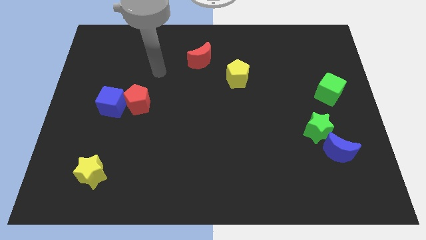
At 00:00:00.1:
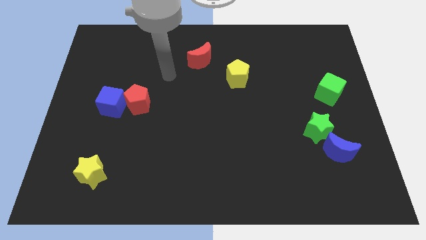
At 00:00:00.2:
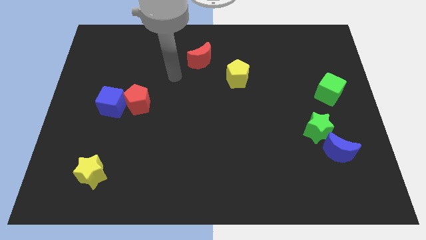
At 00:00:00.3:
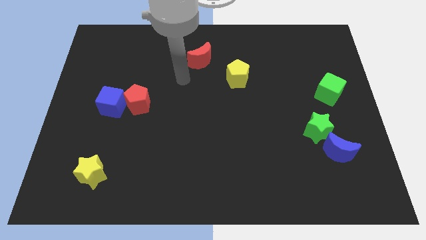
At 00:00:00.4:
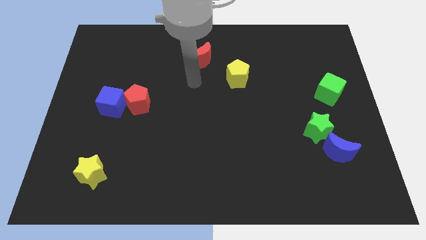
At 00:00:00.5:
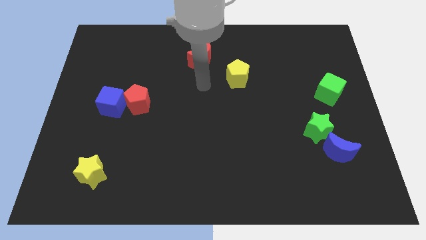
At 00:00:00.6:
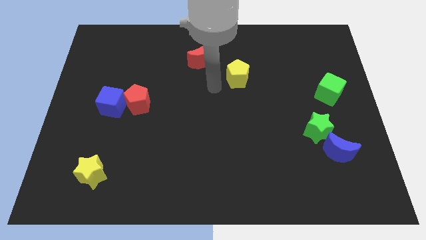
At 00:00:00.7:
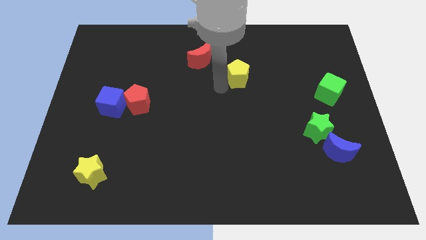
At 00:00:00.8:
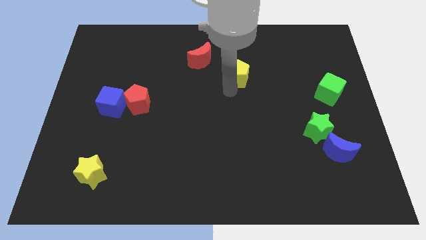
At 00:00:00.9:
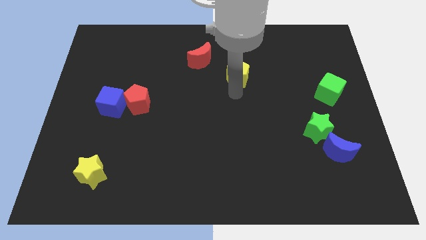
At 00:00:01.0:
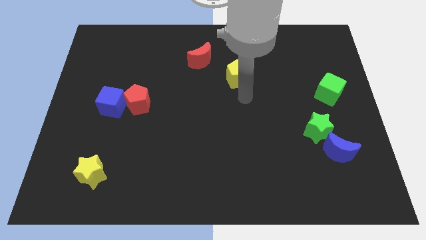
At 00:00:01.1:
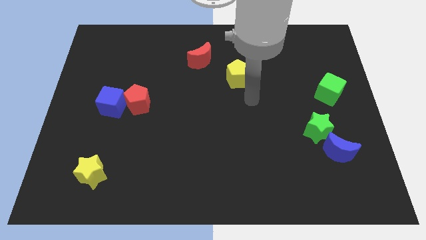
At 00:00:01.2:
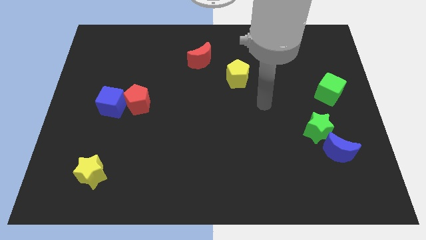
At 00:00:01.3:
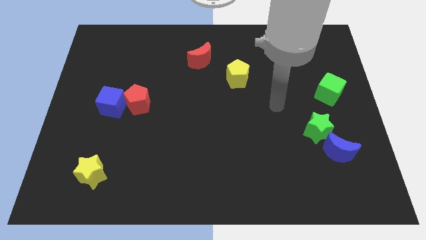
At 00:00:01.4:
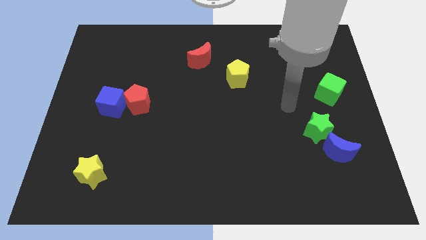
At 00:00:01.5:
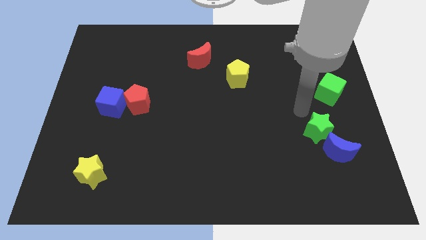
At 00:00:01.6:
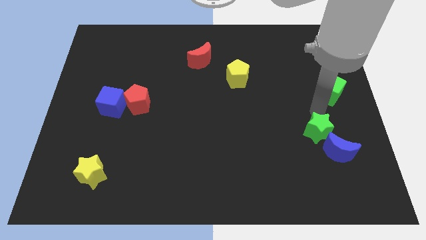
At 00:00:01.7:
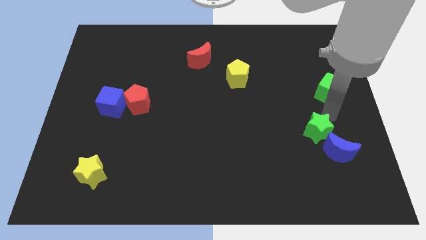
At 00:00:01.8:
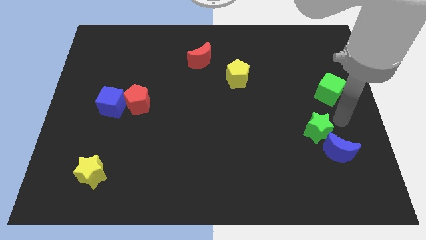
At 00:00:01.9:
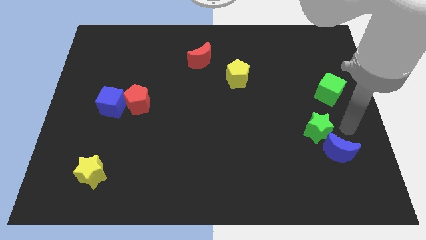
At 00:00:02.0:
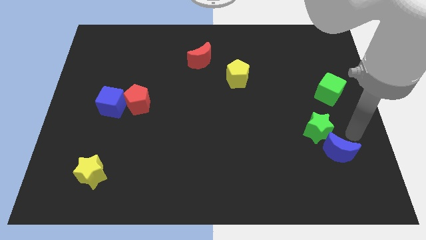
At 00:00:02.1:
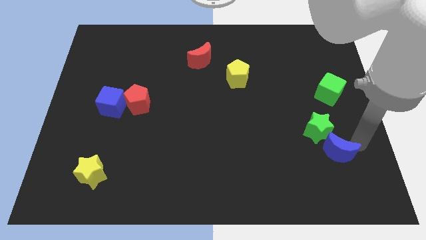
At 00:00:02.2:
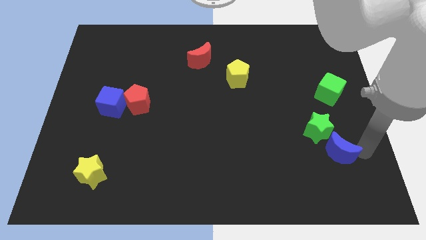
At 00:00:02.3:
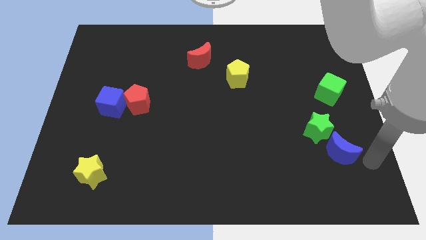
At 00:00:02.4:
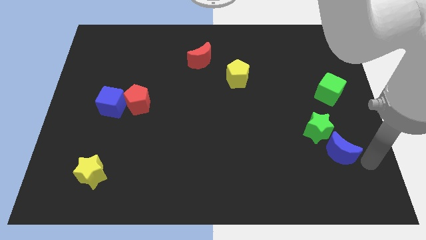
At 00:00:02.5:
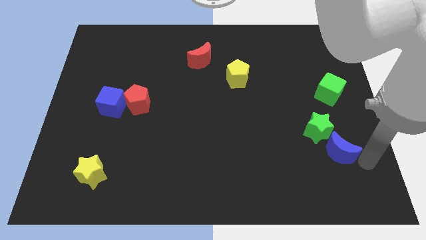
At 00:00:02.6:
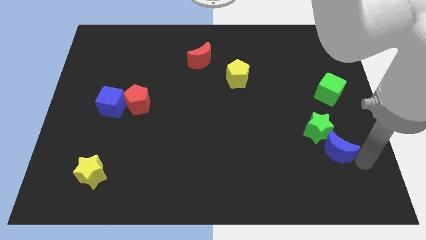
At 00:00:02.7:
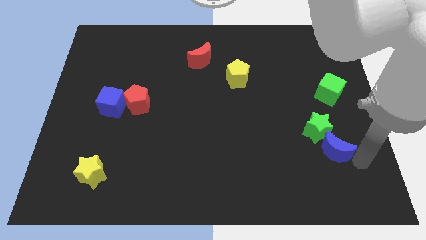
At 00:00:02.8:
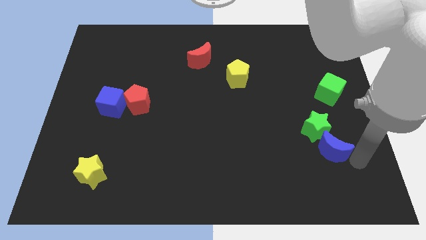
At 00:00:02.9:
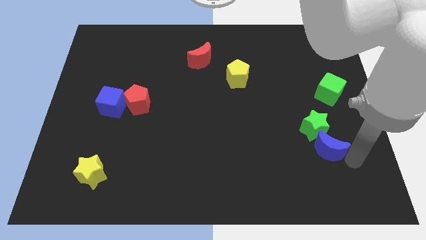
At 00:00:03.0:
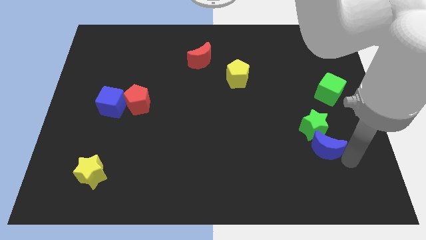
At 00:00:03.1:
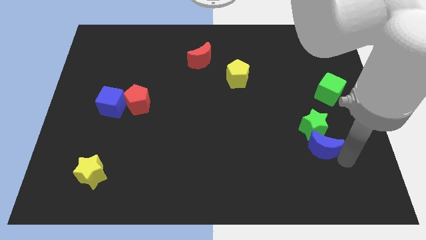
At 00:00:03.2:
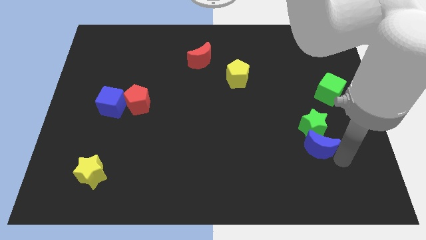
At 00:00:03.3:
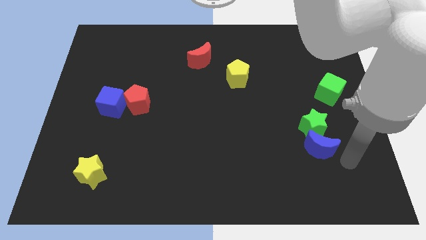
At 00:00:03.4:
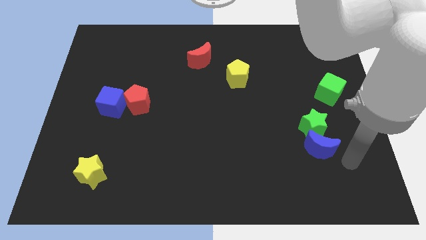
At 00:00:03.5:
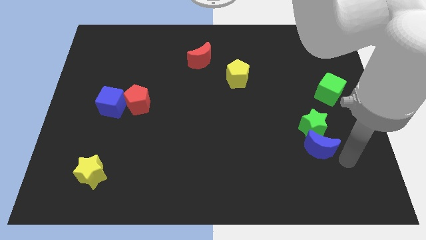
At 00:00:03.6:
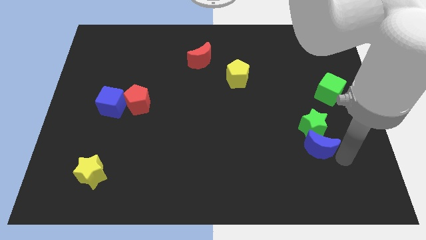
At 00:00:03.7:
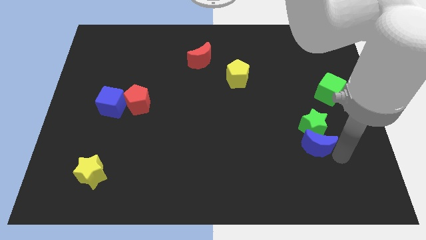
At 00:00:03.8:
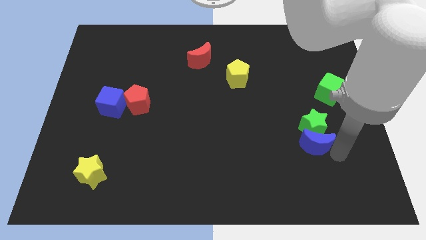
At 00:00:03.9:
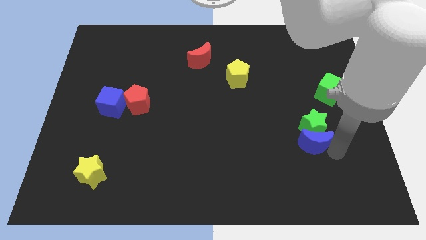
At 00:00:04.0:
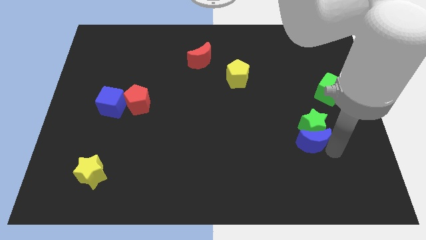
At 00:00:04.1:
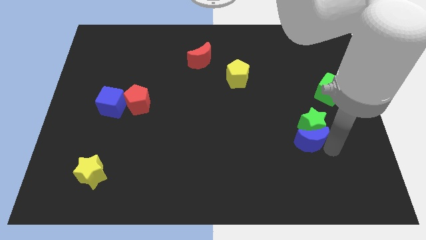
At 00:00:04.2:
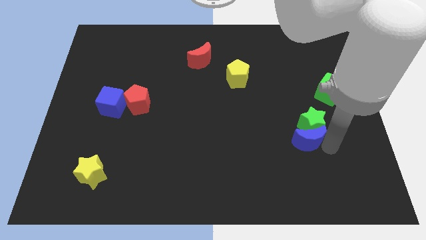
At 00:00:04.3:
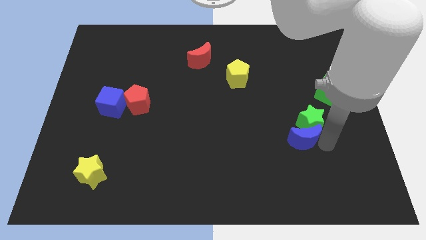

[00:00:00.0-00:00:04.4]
slide the blue moon up and left diagonally a little

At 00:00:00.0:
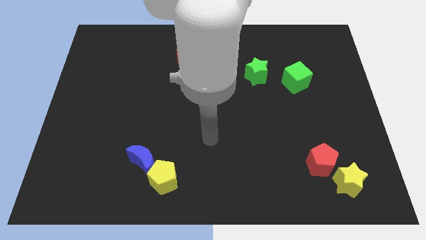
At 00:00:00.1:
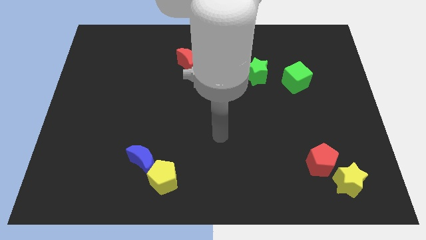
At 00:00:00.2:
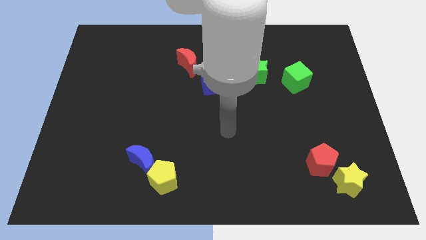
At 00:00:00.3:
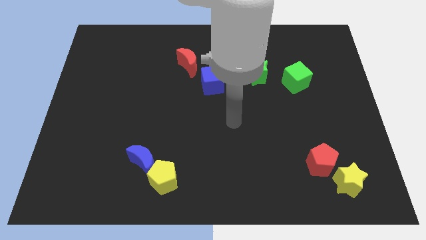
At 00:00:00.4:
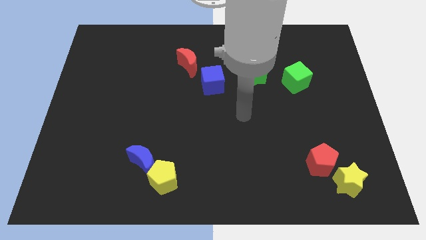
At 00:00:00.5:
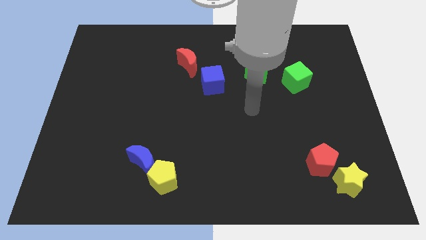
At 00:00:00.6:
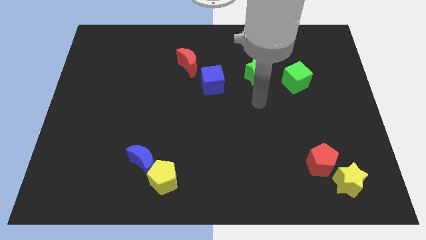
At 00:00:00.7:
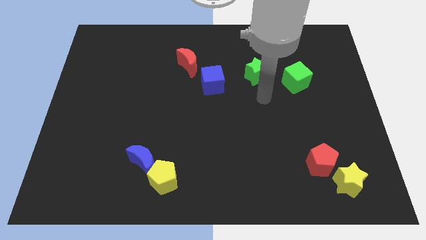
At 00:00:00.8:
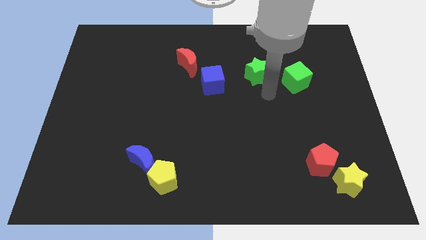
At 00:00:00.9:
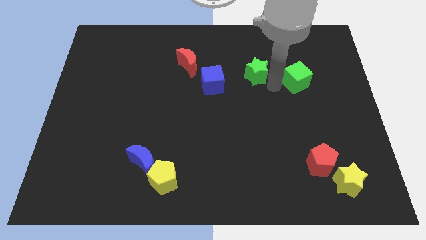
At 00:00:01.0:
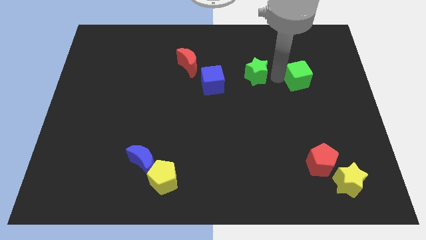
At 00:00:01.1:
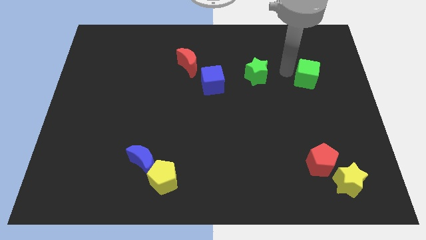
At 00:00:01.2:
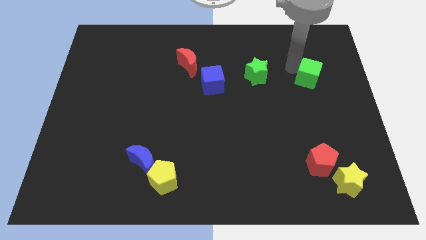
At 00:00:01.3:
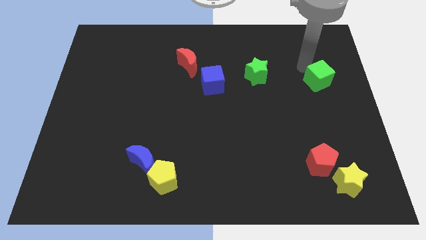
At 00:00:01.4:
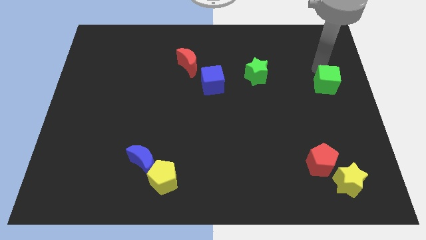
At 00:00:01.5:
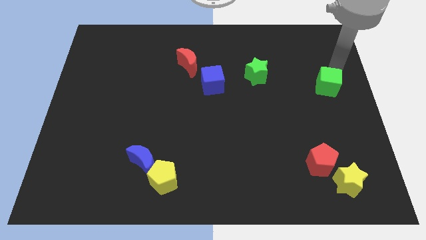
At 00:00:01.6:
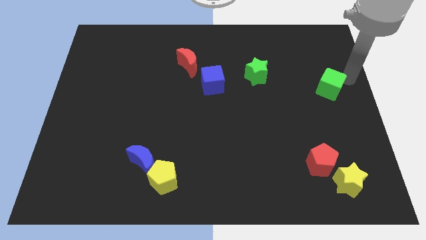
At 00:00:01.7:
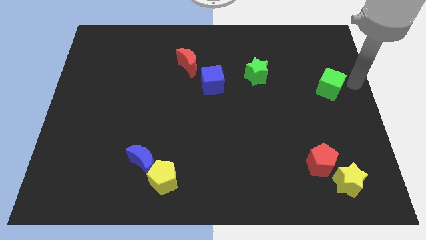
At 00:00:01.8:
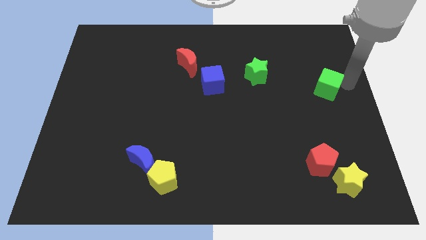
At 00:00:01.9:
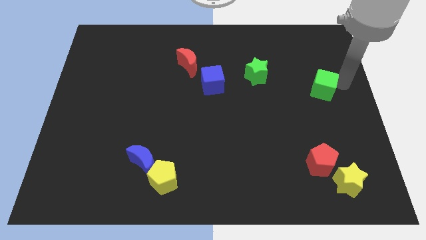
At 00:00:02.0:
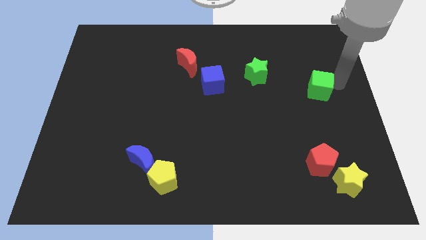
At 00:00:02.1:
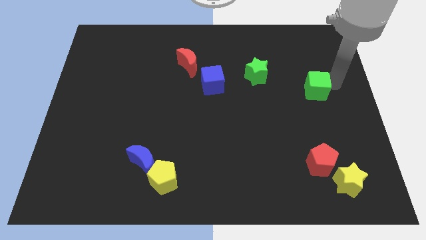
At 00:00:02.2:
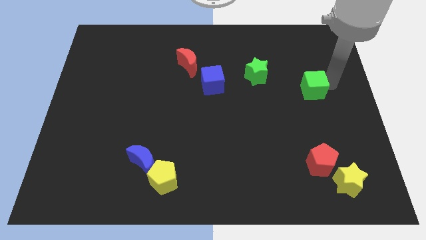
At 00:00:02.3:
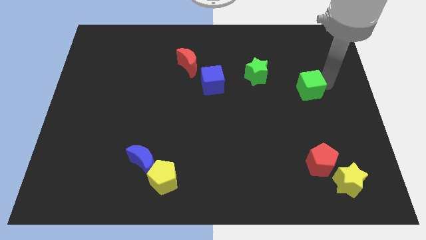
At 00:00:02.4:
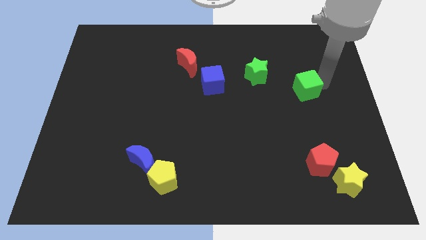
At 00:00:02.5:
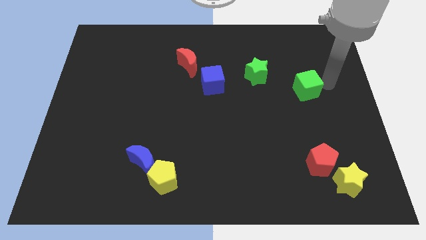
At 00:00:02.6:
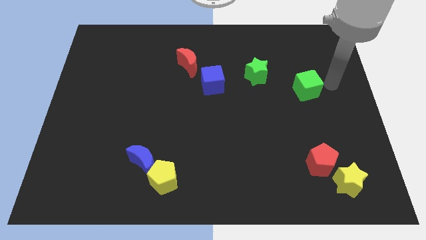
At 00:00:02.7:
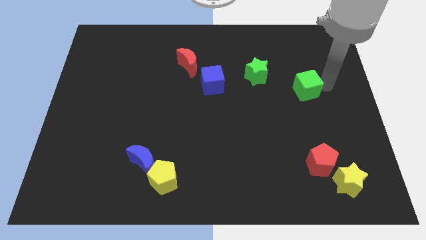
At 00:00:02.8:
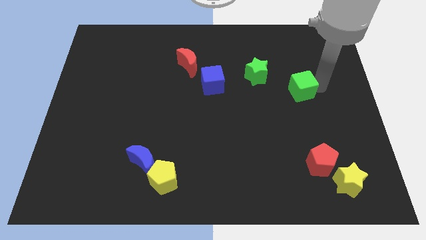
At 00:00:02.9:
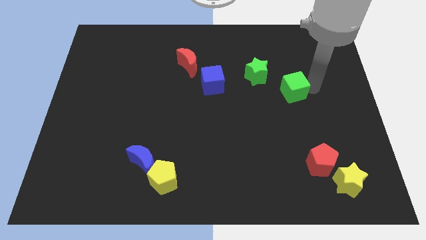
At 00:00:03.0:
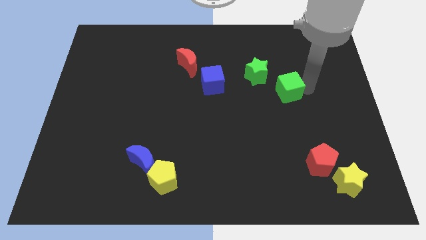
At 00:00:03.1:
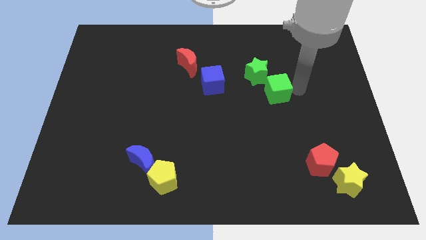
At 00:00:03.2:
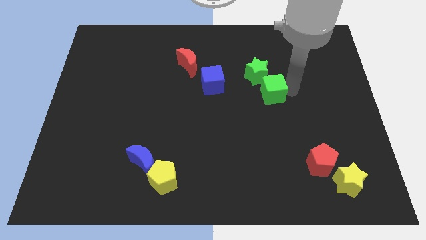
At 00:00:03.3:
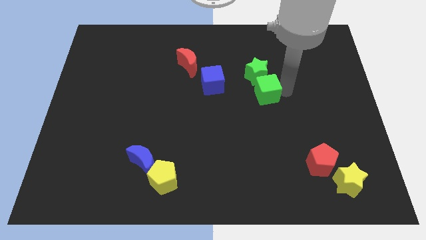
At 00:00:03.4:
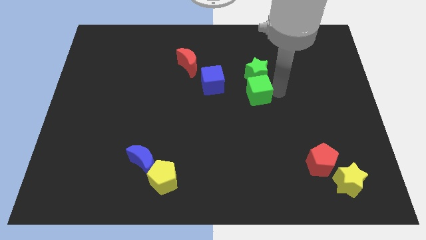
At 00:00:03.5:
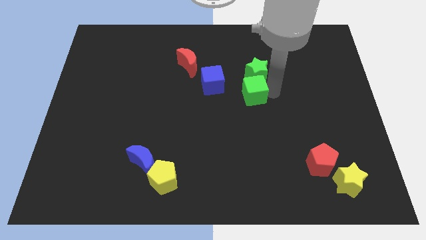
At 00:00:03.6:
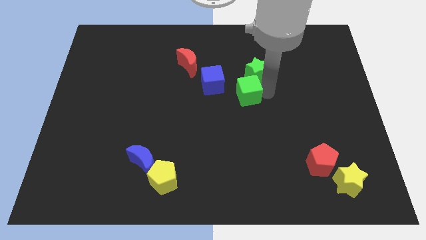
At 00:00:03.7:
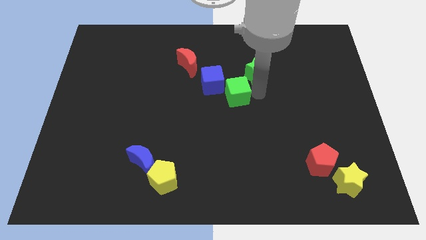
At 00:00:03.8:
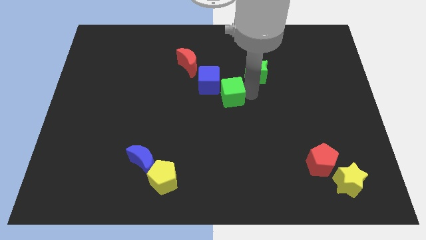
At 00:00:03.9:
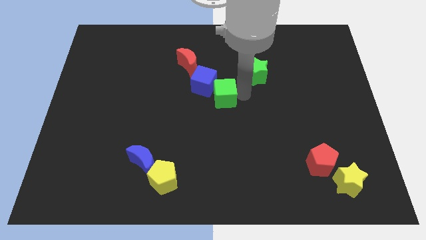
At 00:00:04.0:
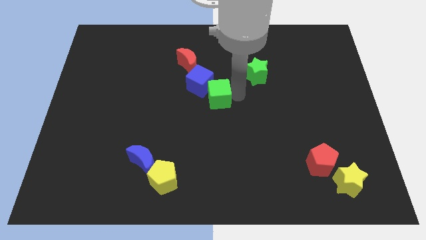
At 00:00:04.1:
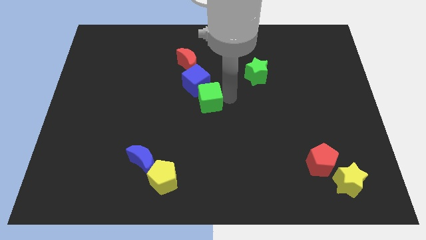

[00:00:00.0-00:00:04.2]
move the green cube to the left
